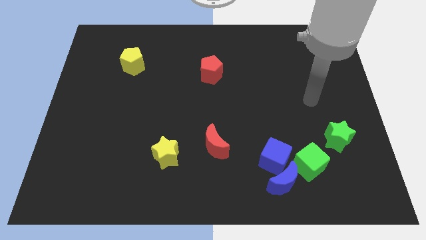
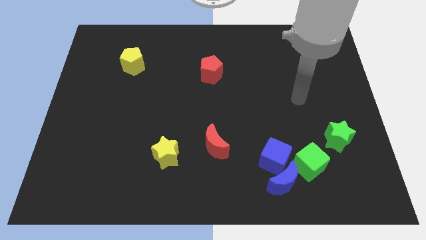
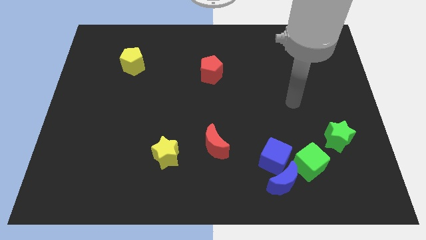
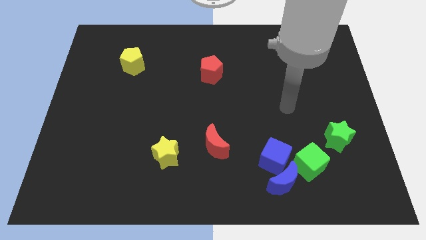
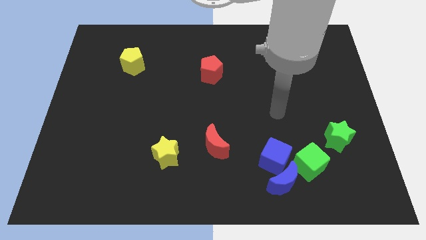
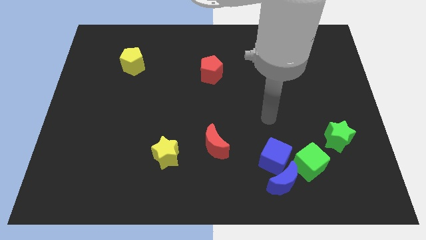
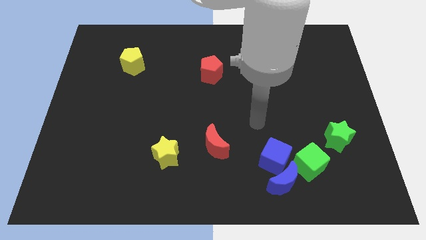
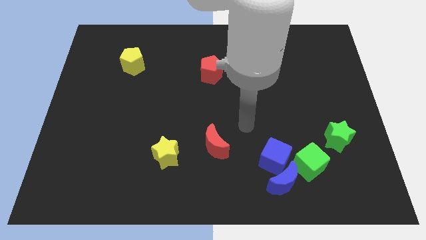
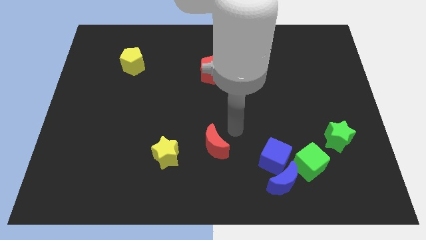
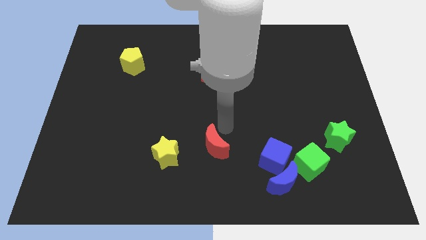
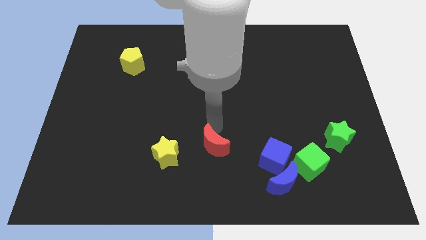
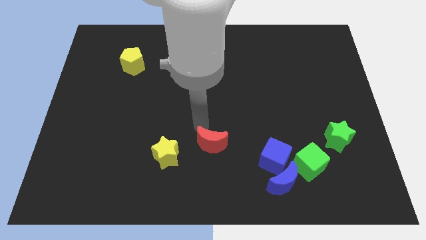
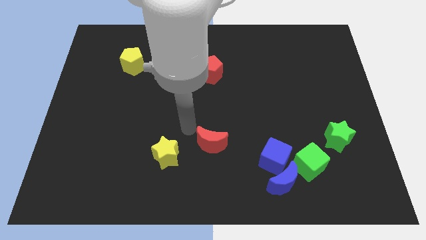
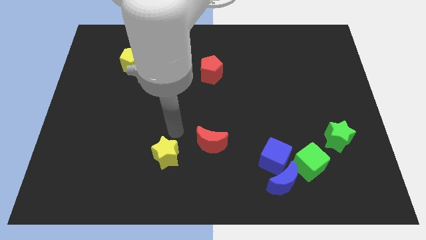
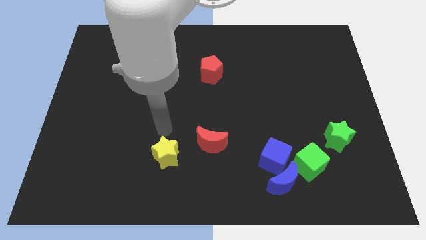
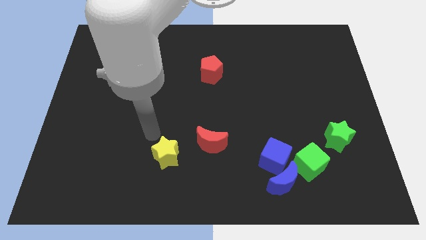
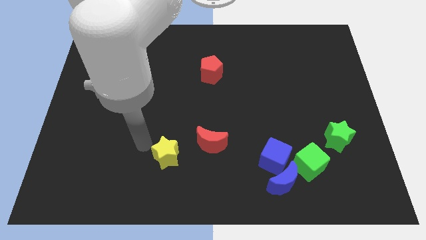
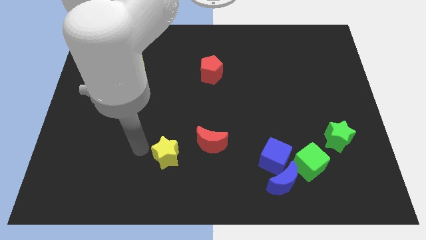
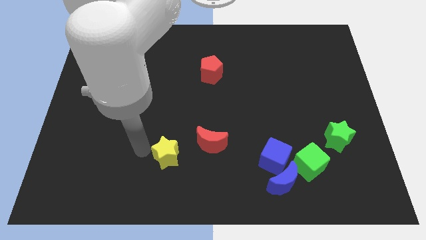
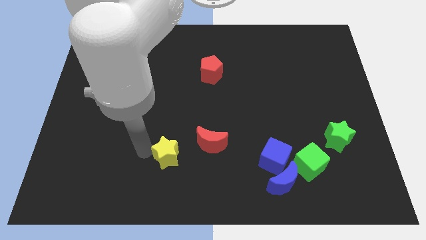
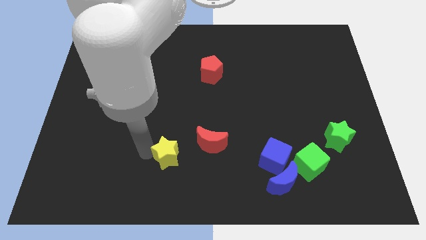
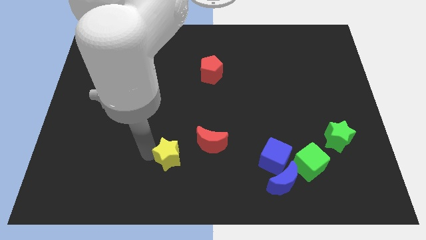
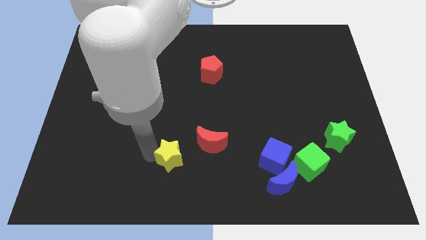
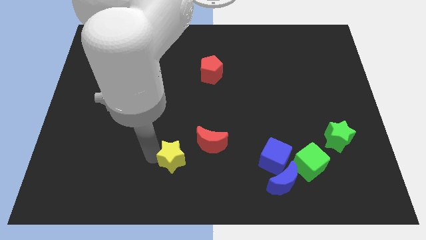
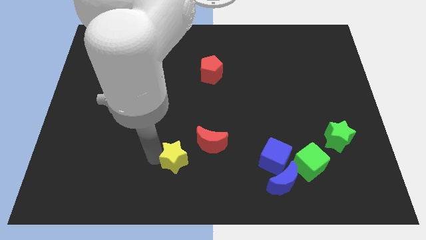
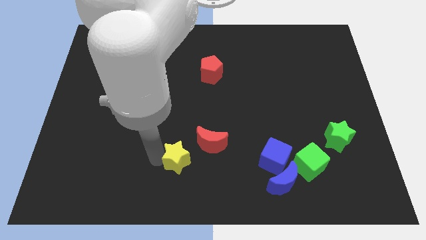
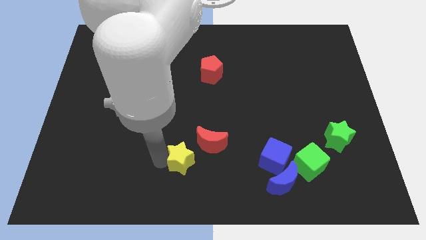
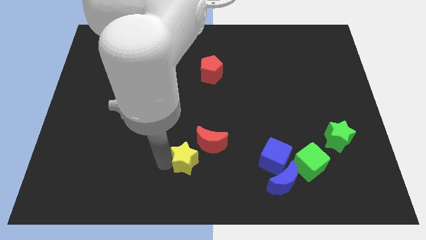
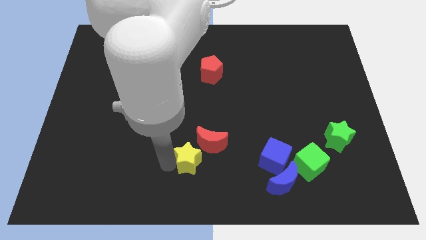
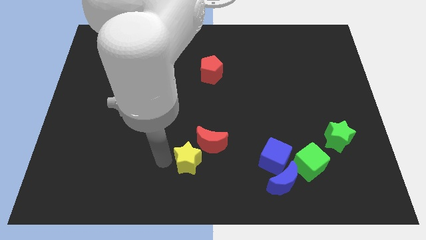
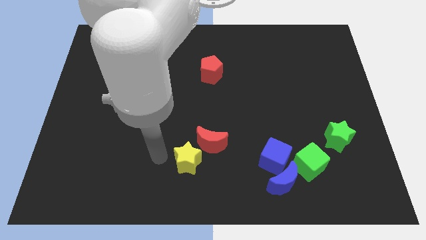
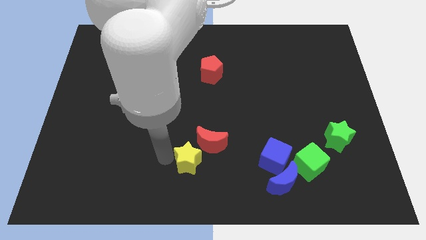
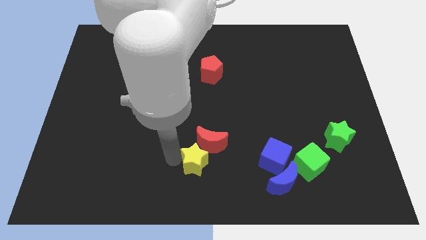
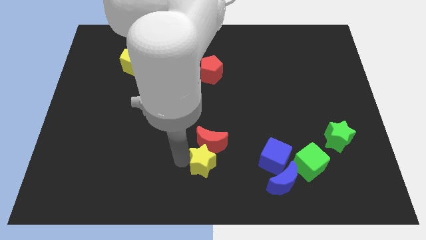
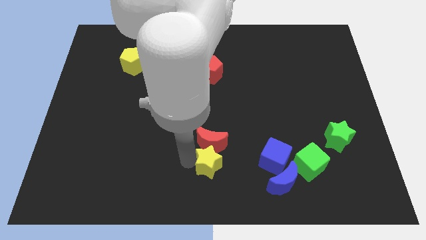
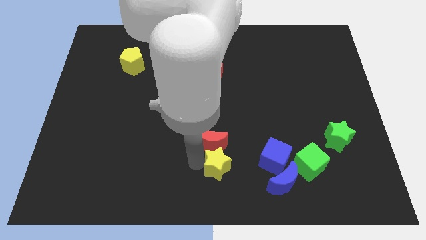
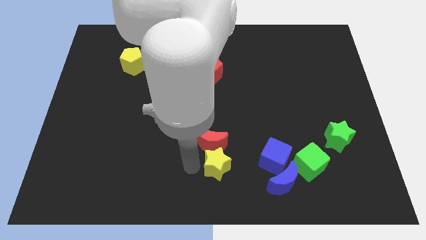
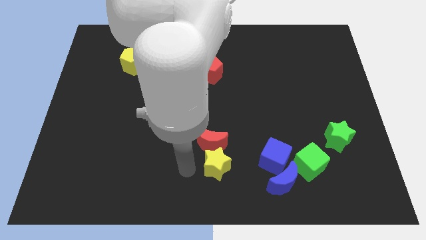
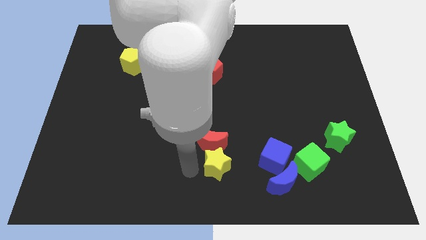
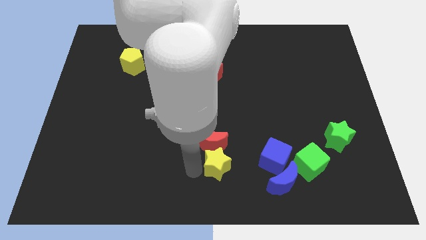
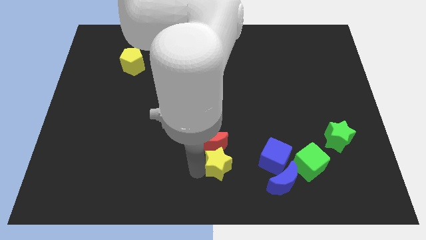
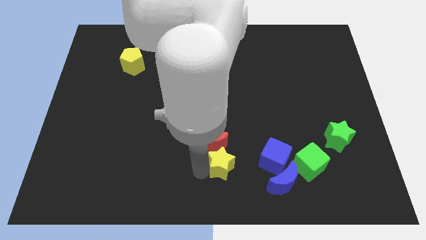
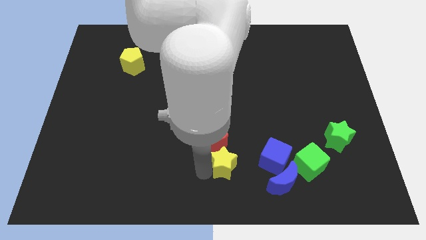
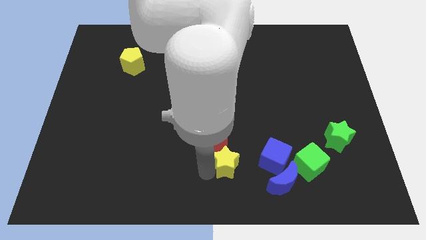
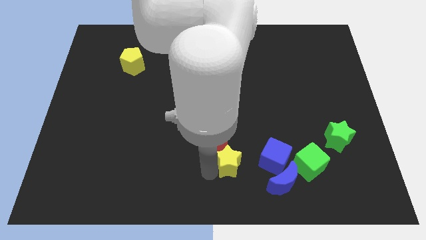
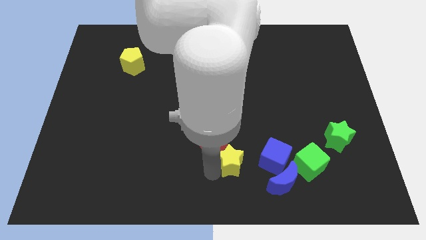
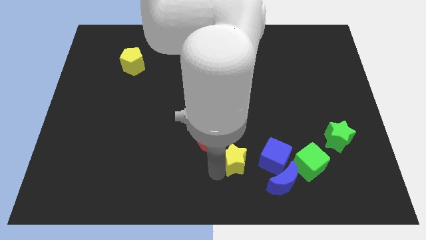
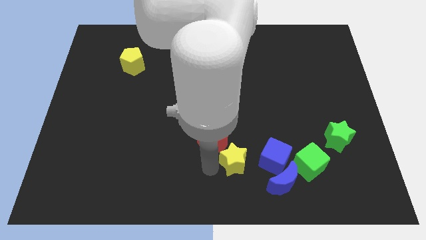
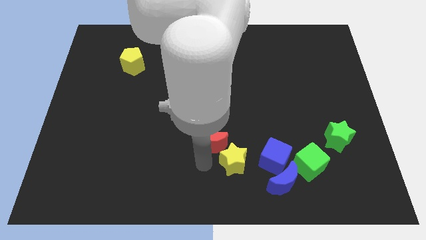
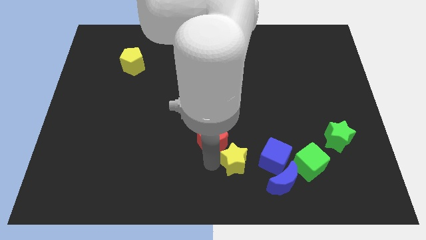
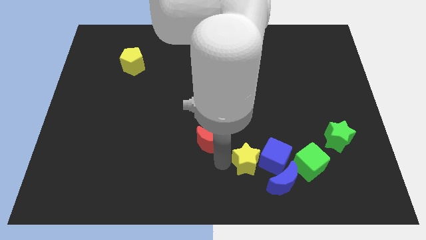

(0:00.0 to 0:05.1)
put the yellow star next to the blue cube

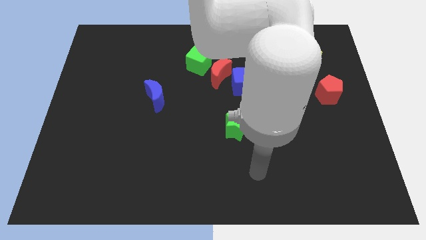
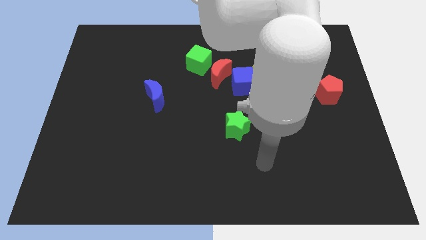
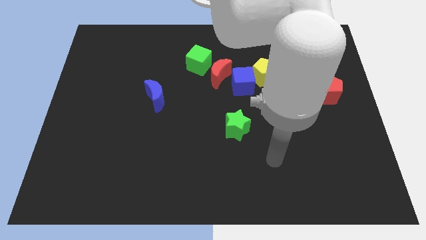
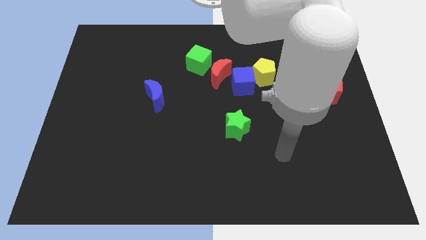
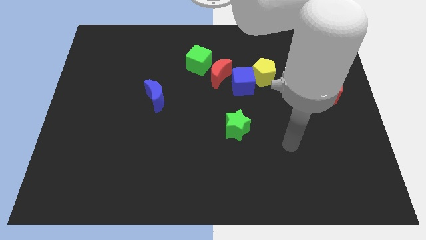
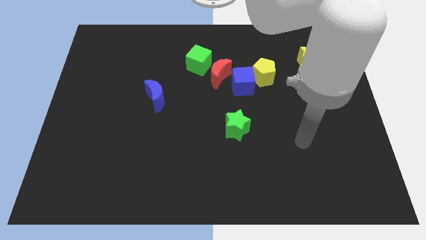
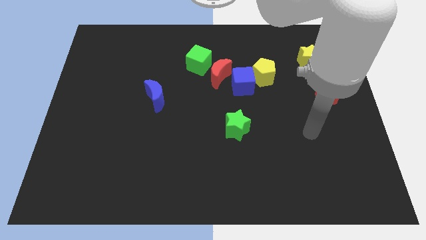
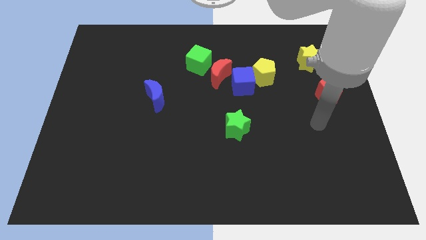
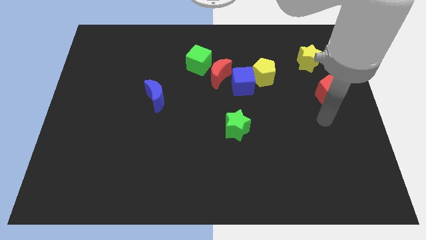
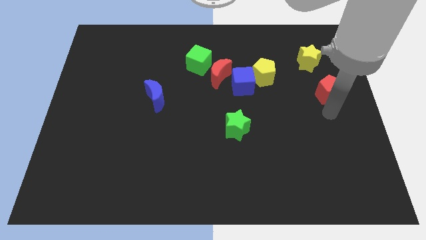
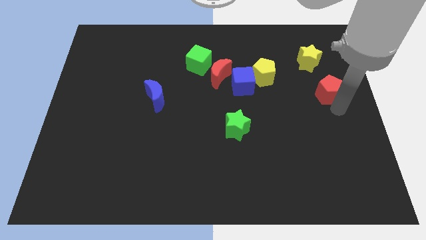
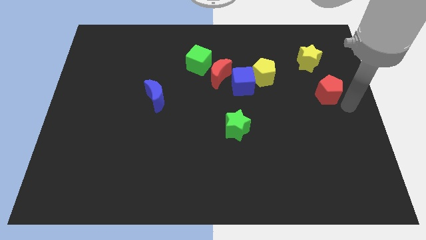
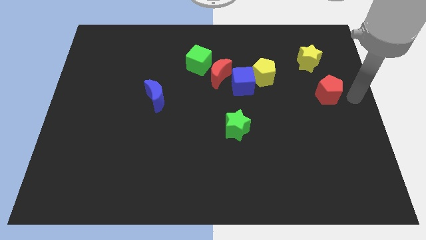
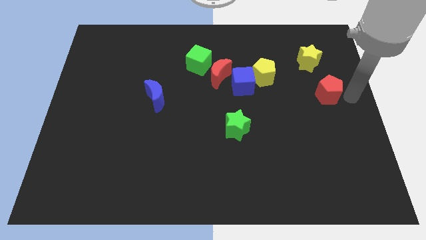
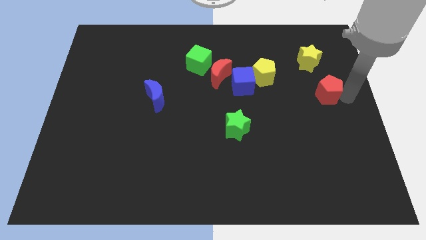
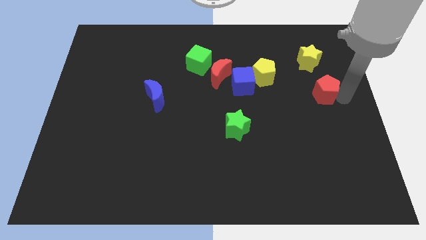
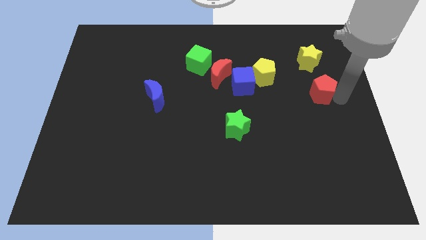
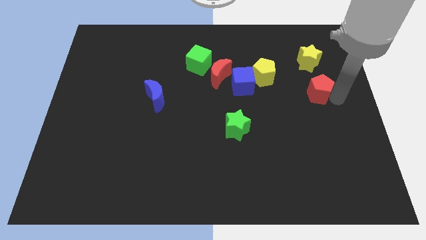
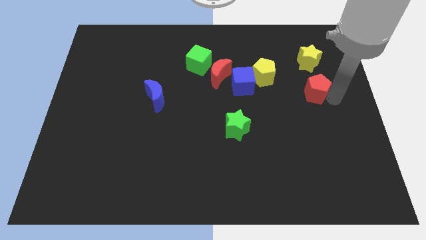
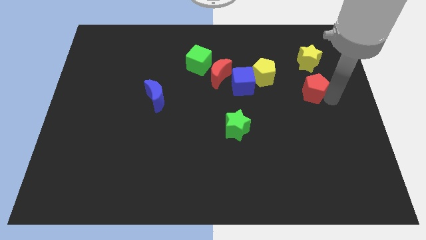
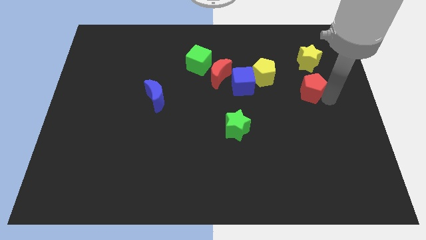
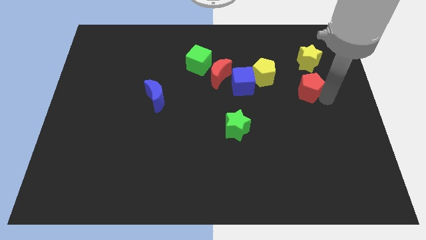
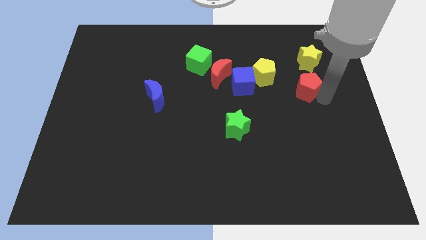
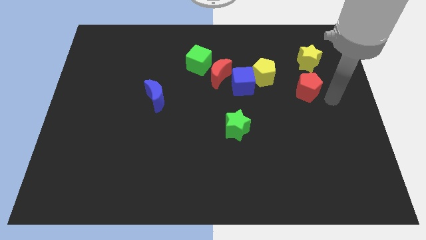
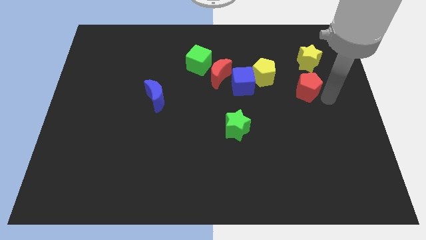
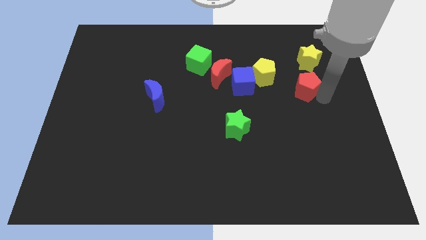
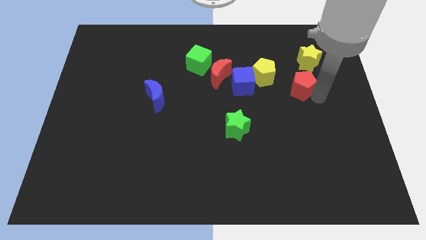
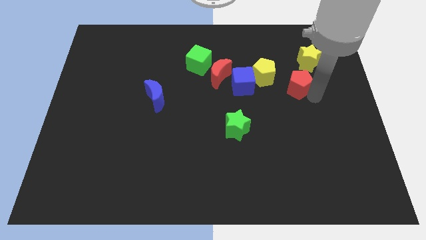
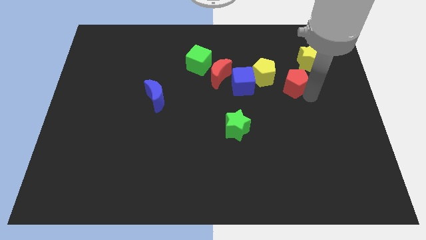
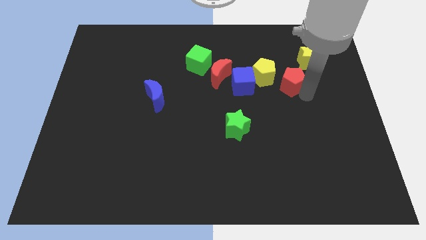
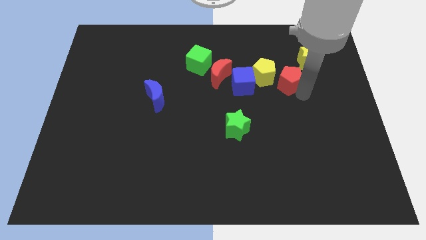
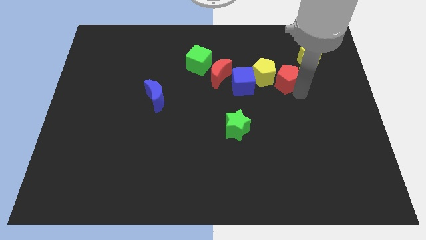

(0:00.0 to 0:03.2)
put the red pentagon next to the yellow pentagon
